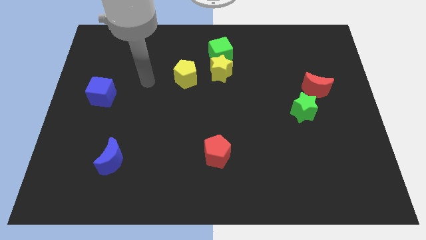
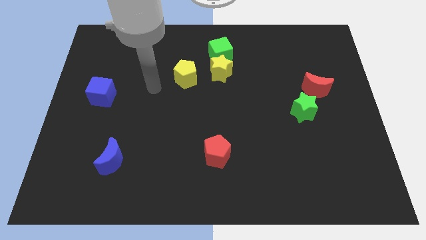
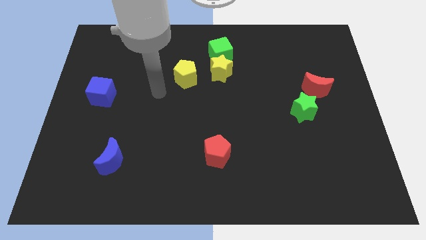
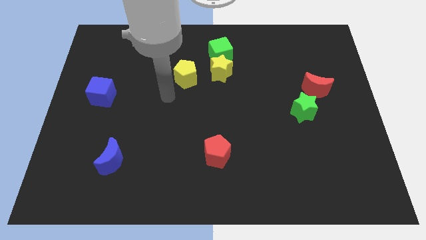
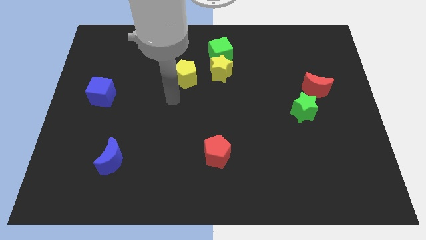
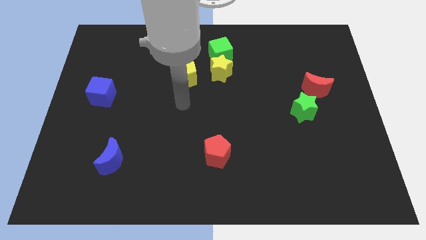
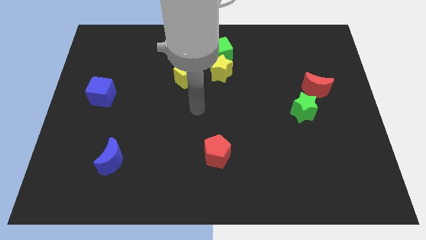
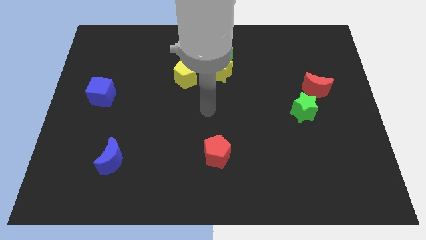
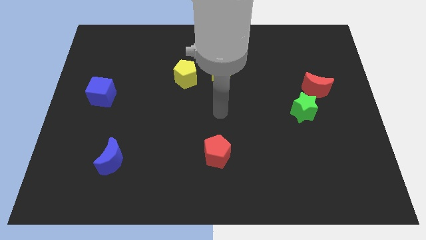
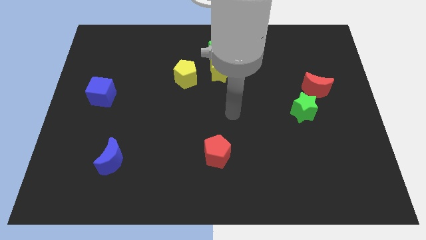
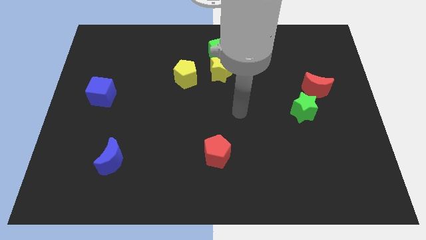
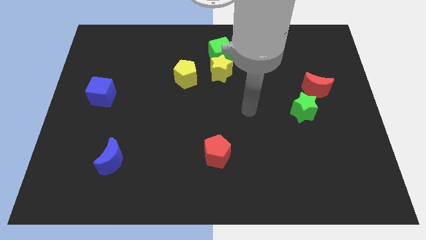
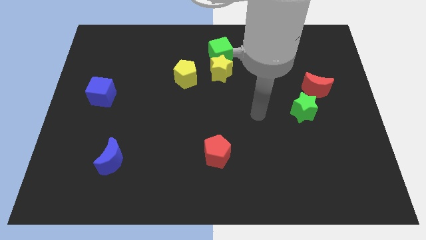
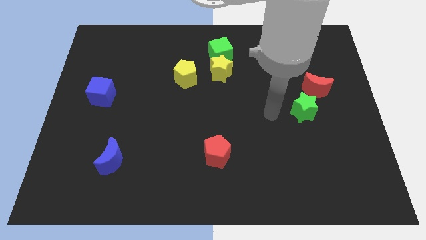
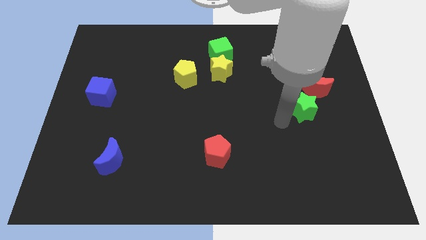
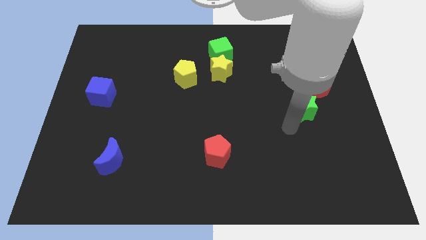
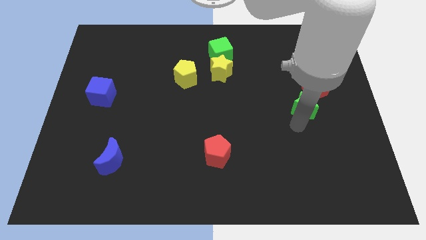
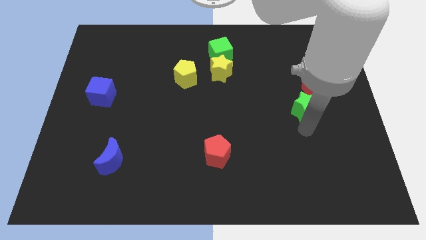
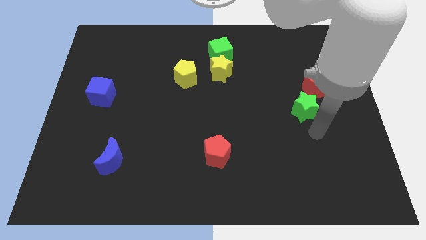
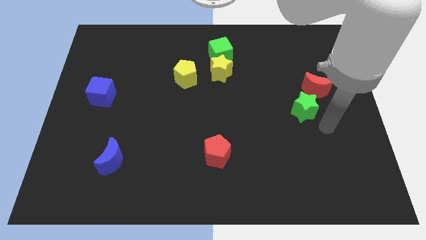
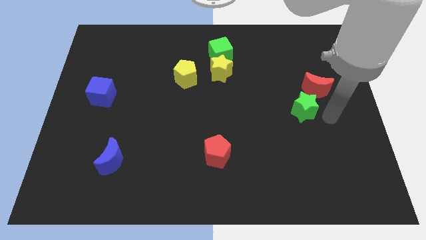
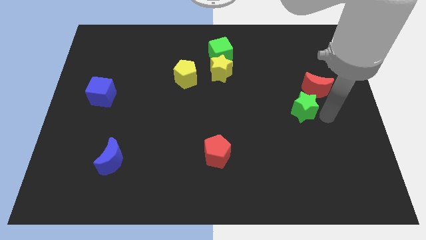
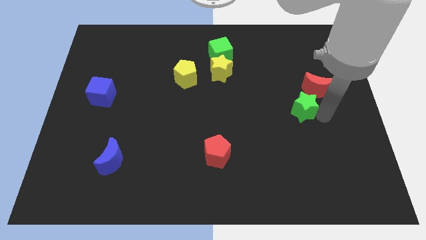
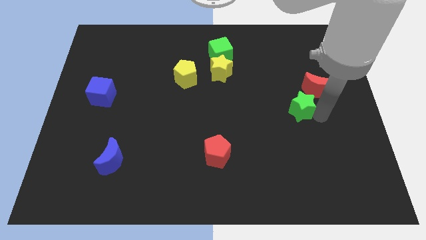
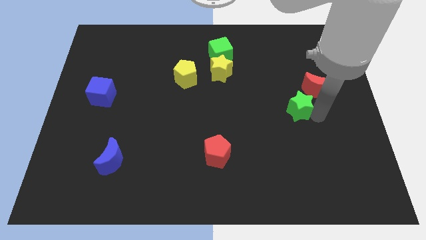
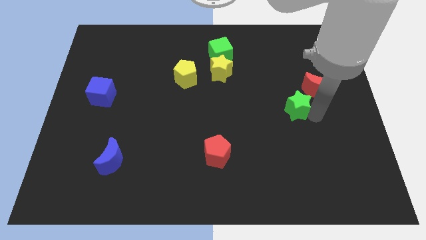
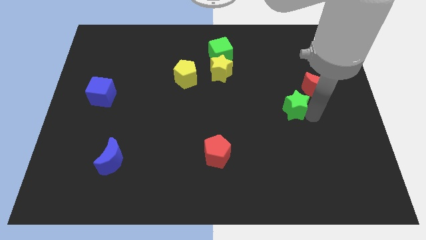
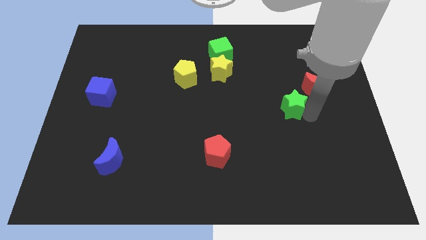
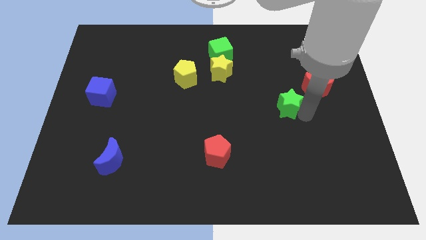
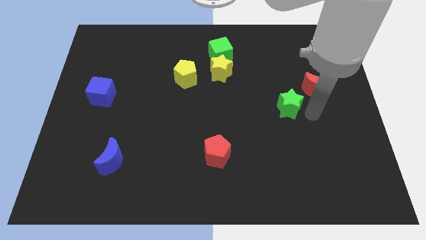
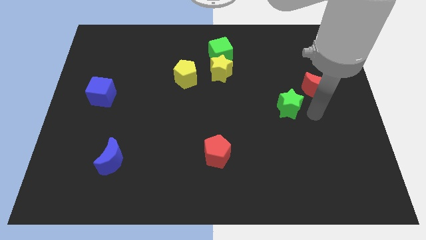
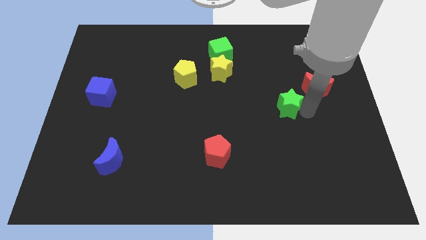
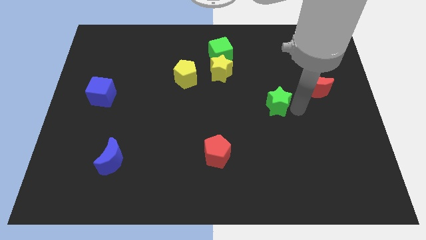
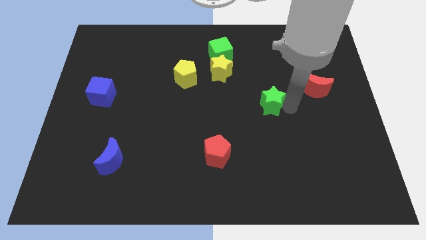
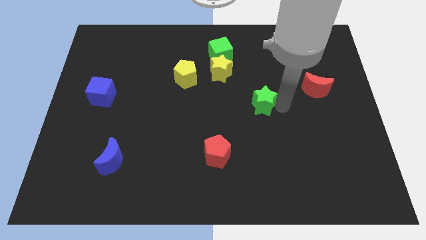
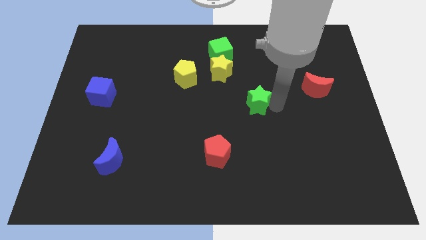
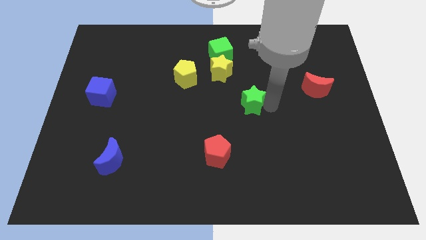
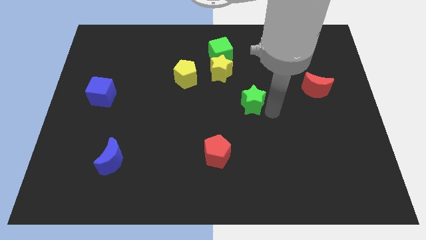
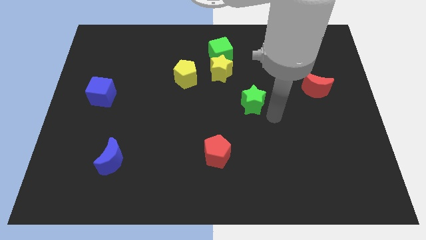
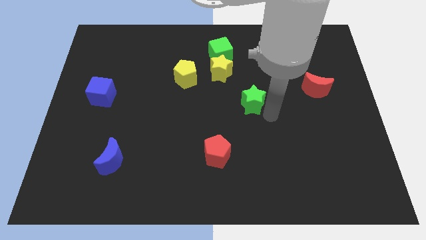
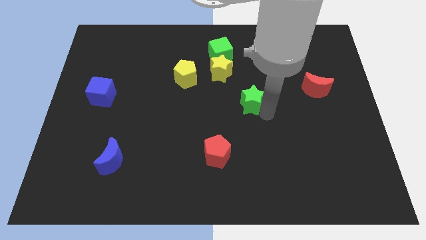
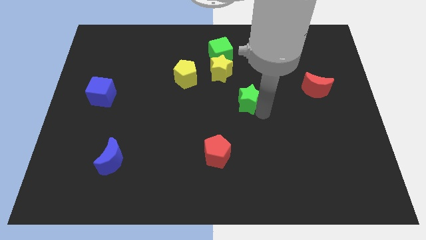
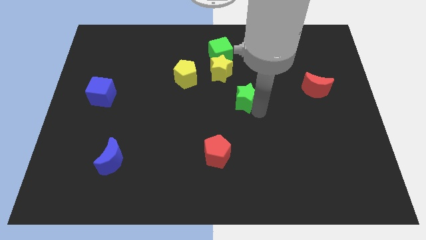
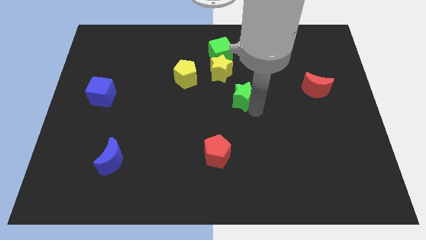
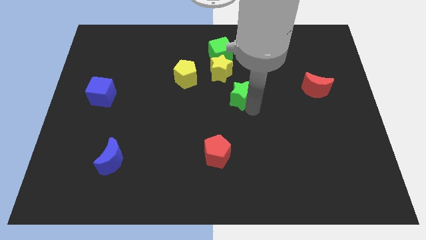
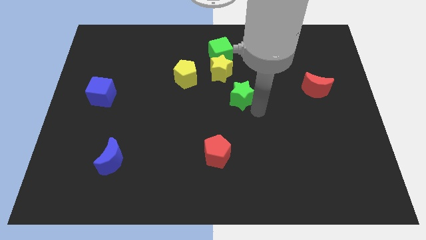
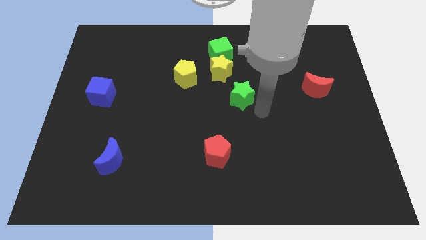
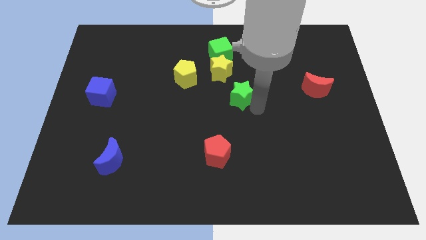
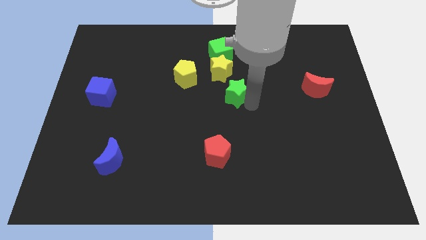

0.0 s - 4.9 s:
push the green star to the bottom side of the green cube

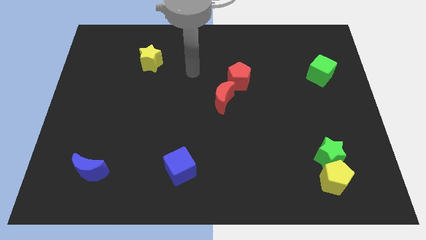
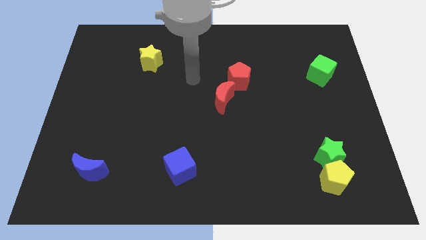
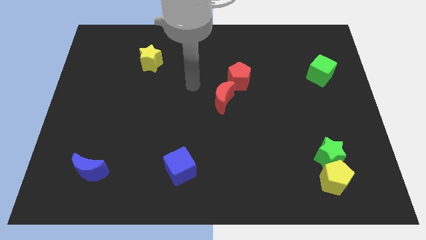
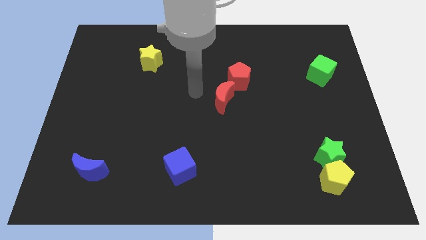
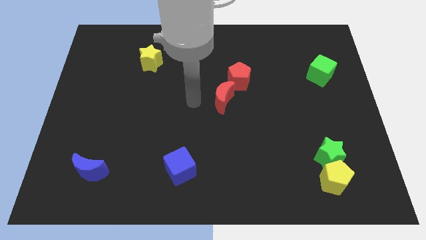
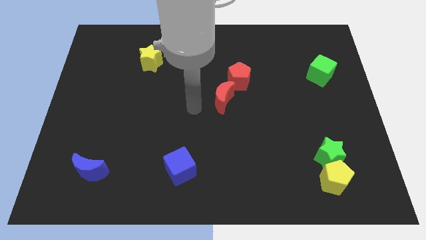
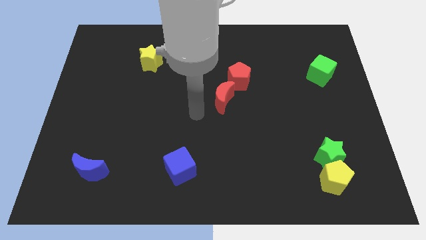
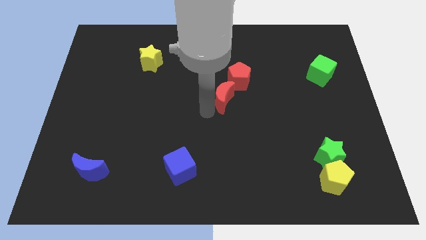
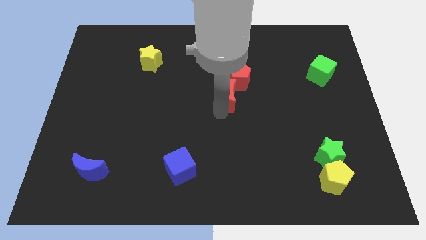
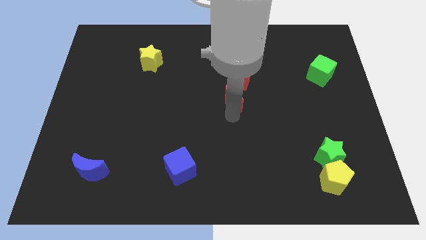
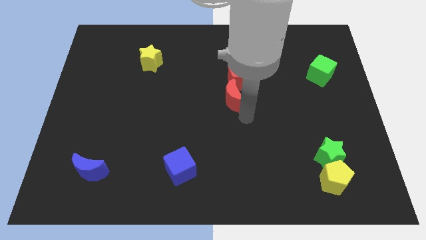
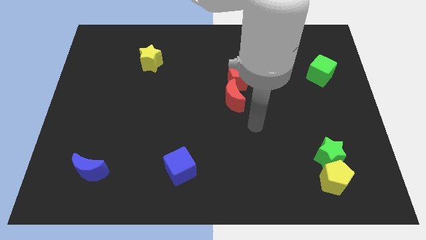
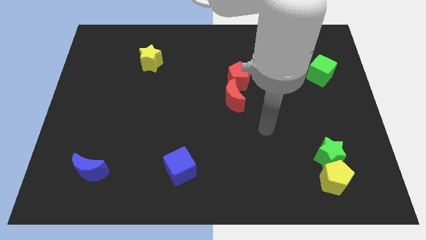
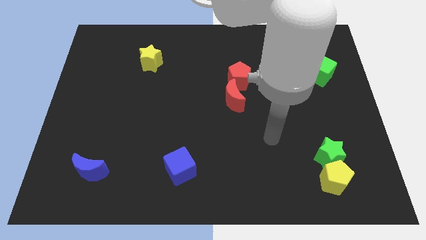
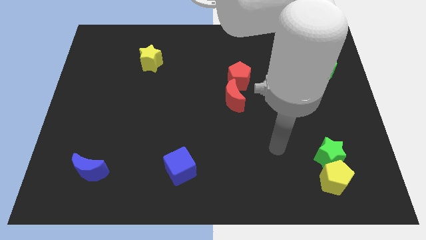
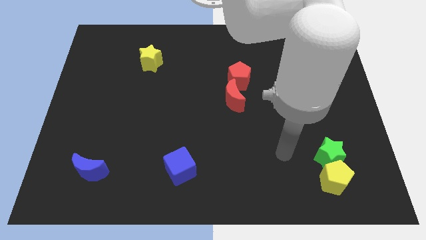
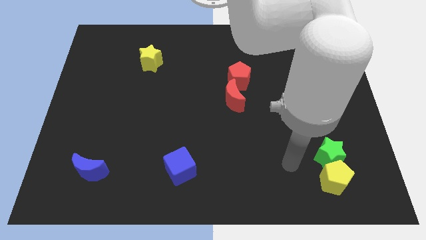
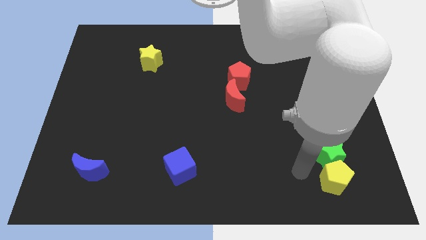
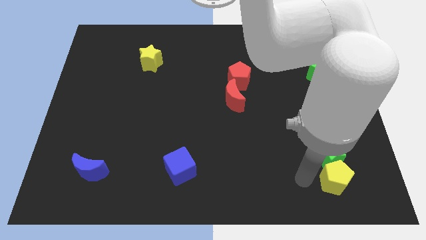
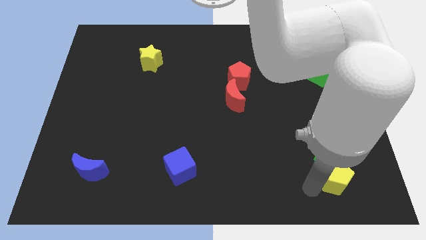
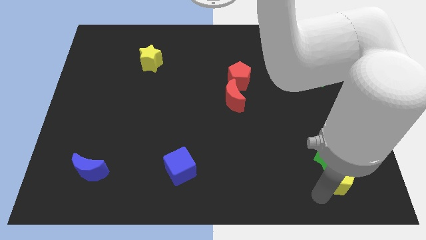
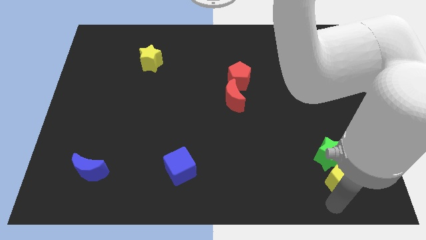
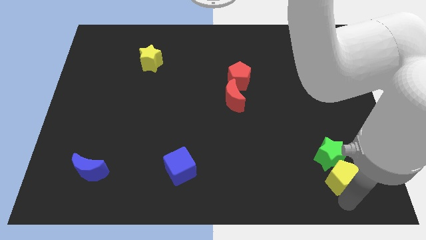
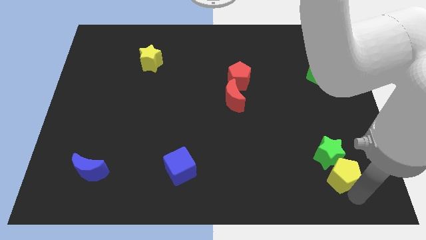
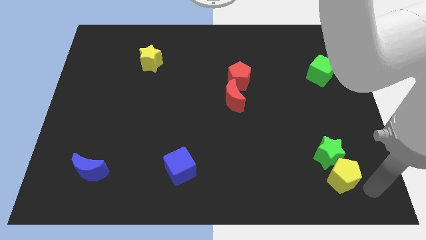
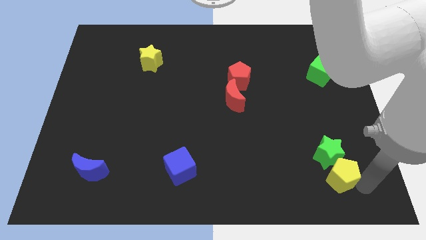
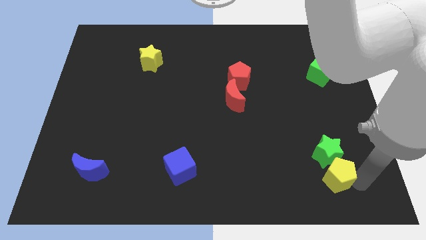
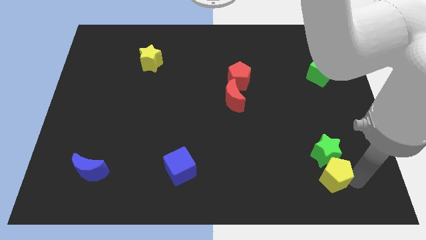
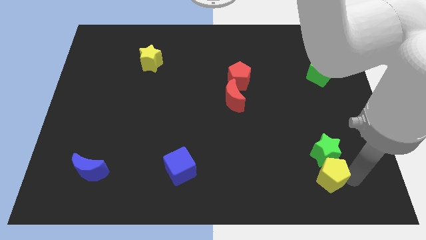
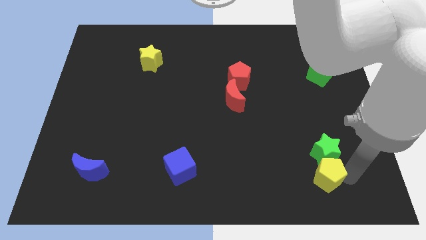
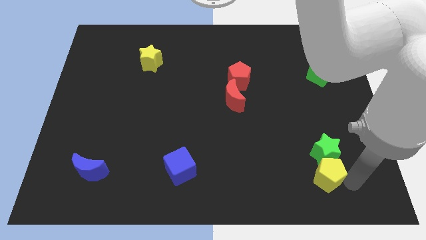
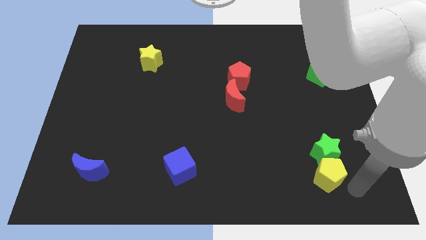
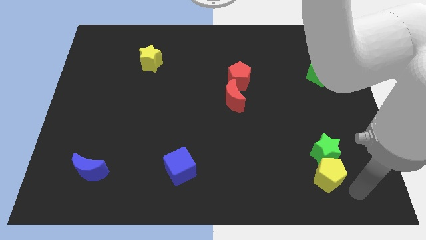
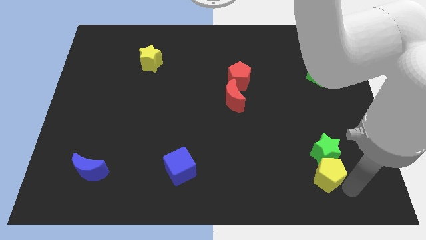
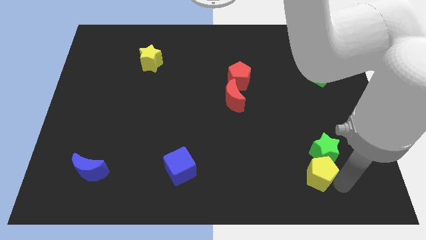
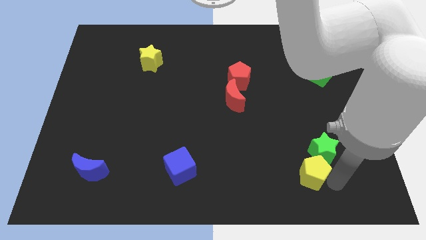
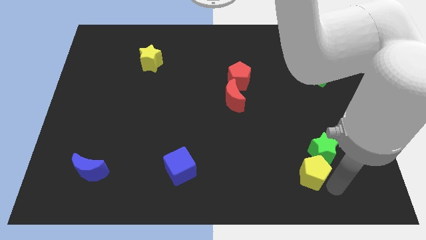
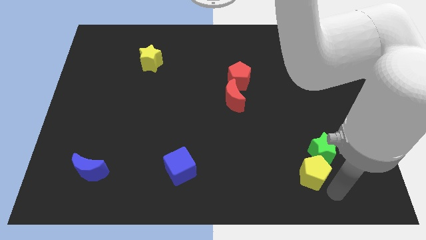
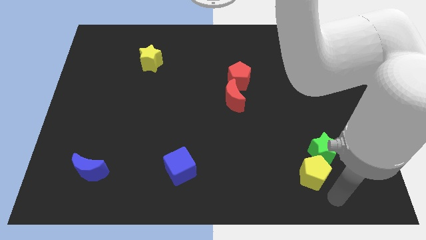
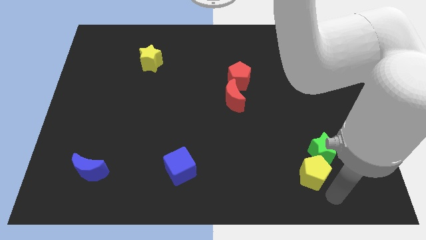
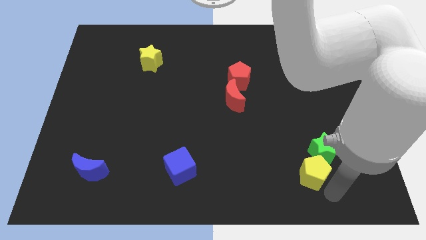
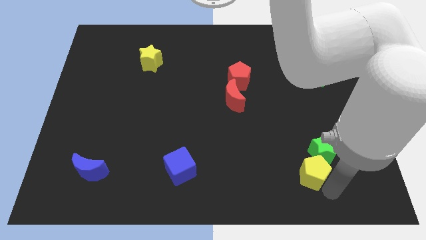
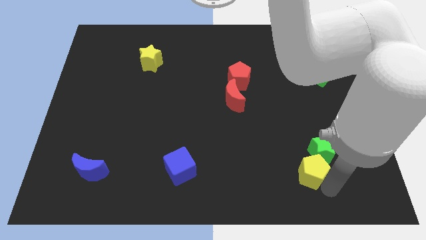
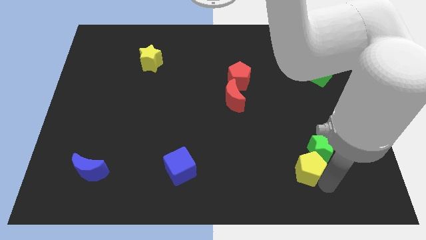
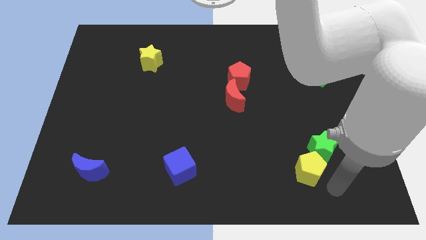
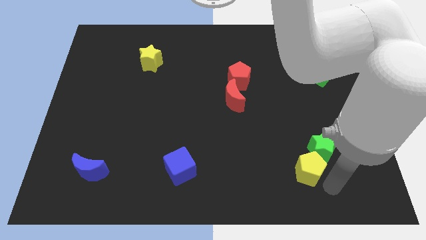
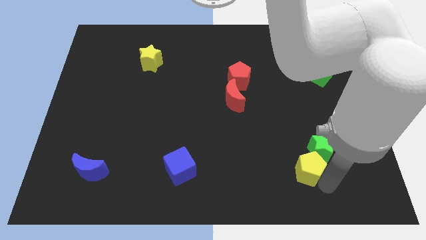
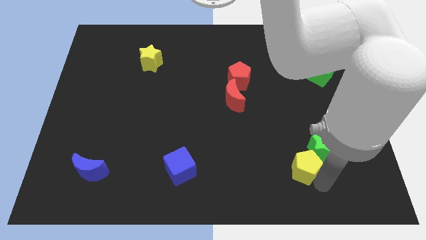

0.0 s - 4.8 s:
put the yellow pentagon to the left of the green star
